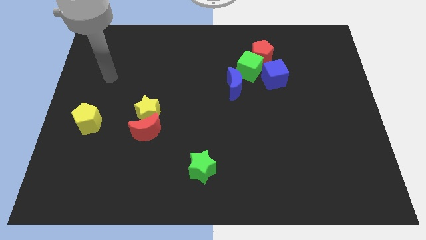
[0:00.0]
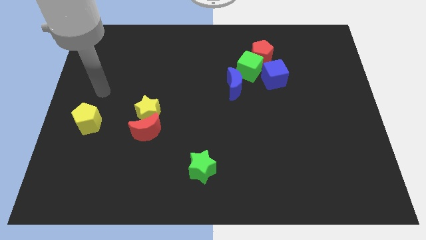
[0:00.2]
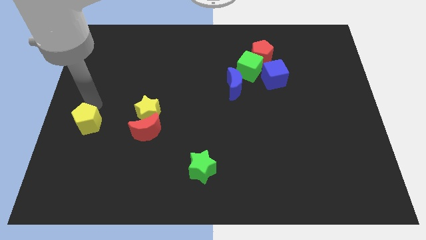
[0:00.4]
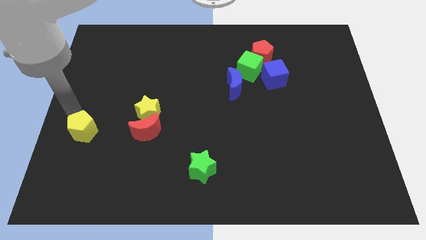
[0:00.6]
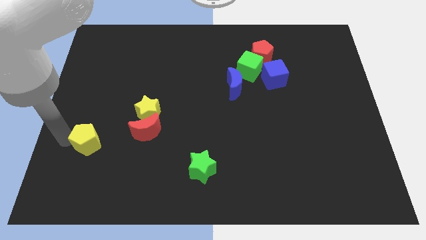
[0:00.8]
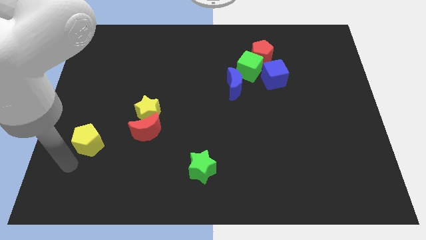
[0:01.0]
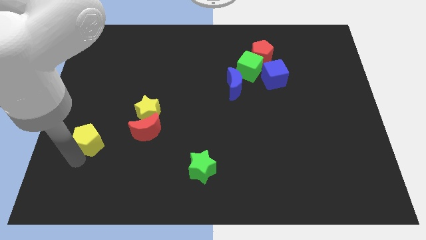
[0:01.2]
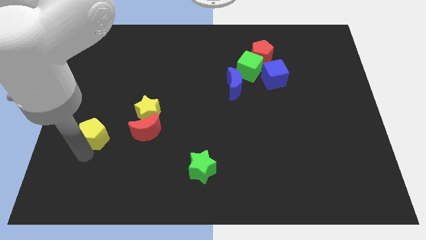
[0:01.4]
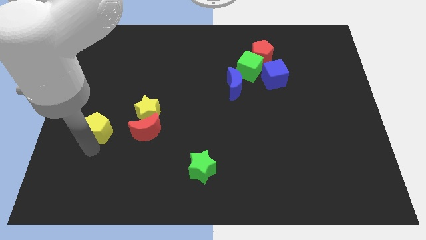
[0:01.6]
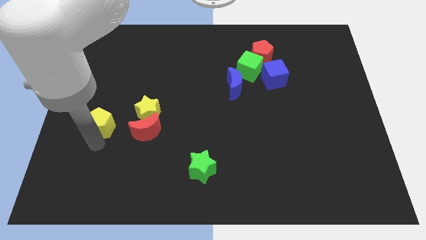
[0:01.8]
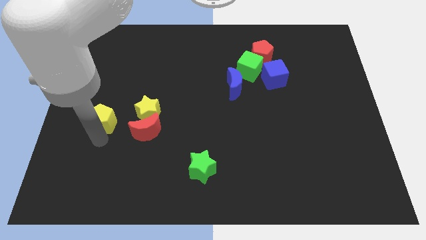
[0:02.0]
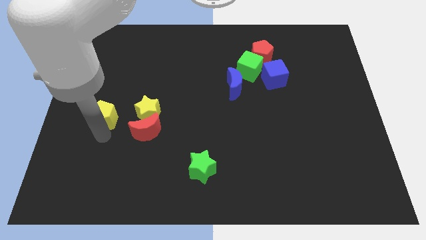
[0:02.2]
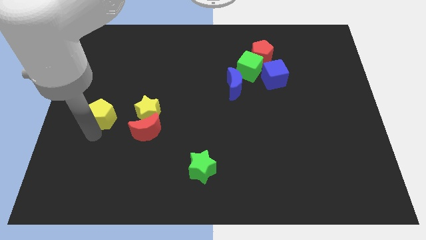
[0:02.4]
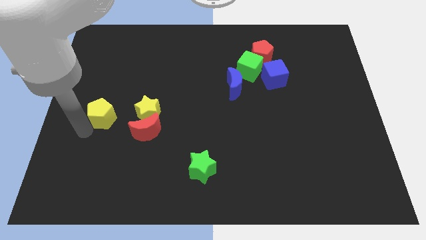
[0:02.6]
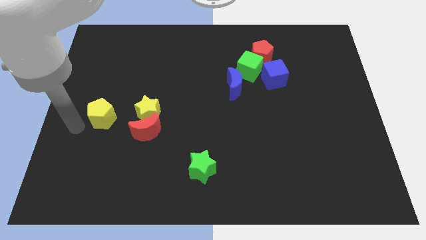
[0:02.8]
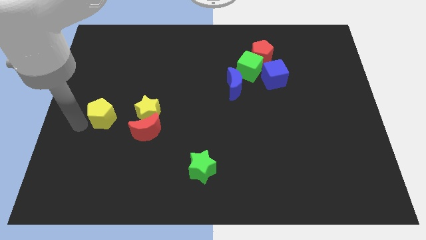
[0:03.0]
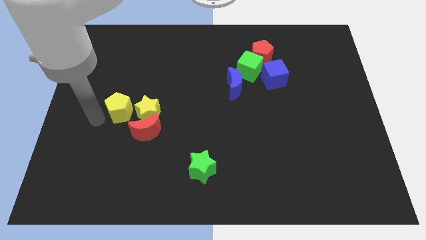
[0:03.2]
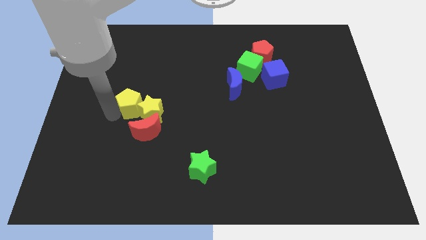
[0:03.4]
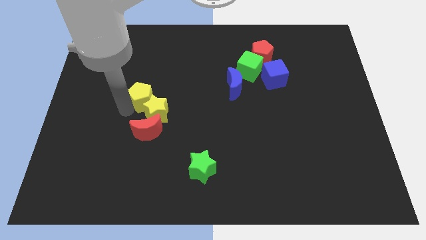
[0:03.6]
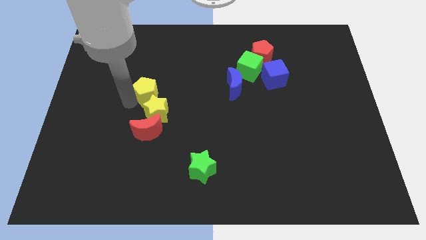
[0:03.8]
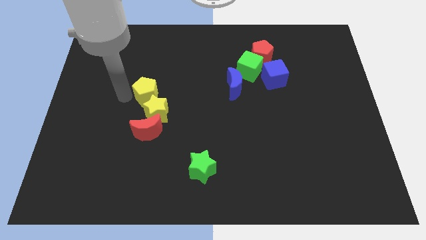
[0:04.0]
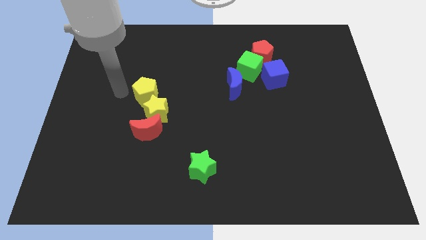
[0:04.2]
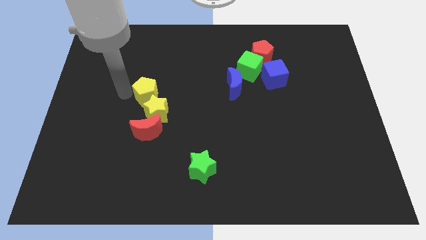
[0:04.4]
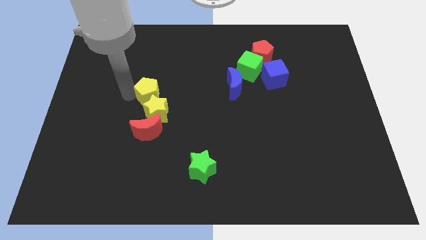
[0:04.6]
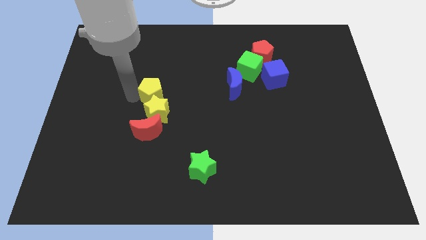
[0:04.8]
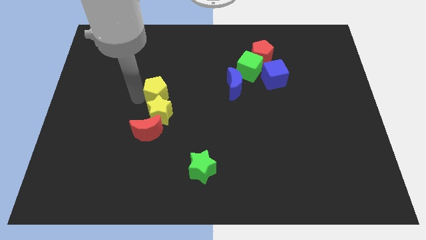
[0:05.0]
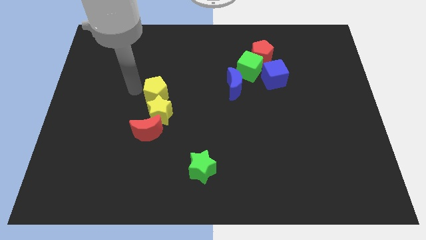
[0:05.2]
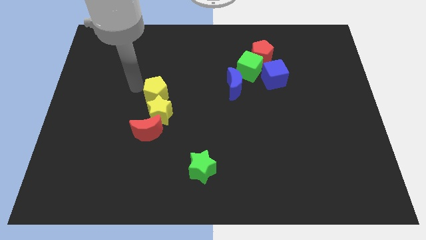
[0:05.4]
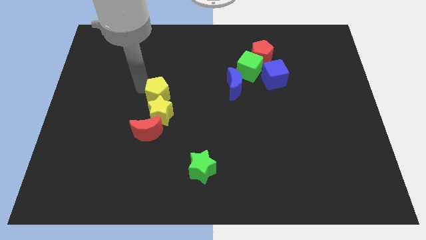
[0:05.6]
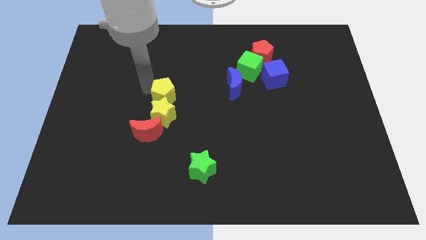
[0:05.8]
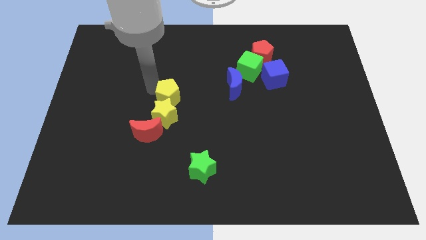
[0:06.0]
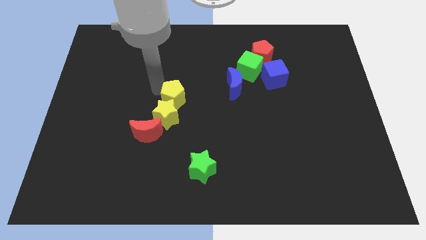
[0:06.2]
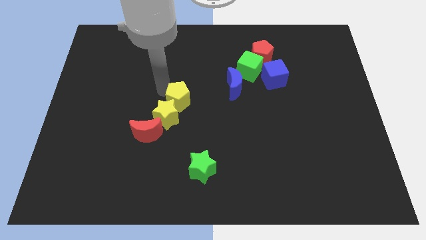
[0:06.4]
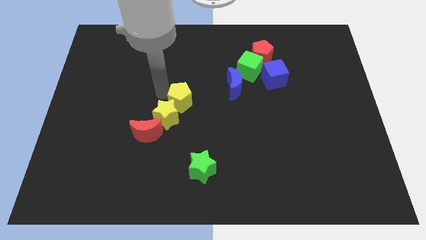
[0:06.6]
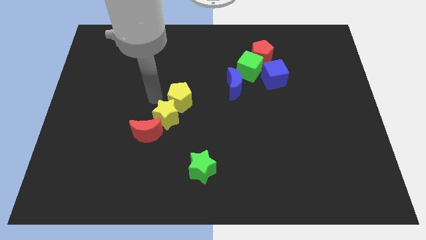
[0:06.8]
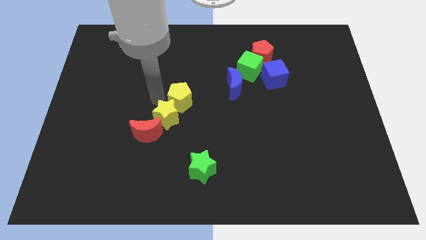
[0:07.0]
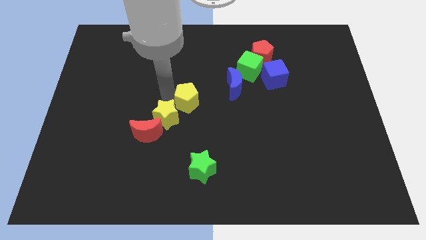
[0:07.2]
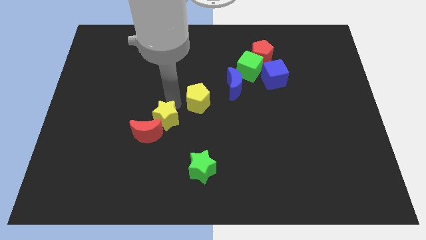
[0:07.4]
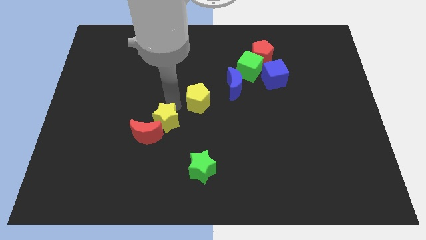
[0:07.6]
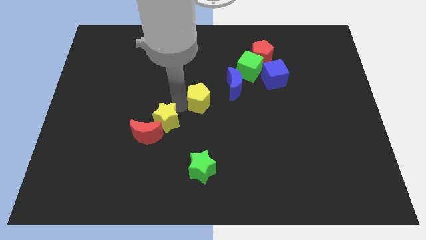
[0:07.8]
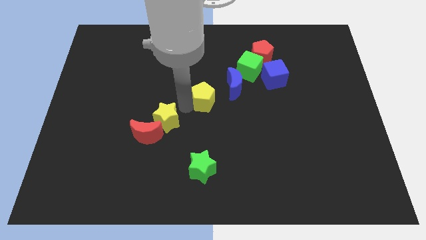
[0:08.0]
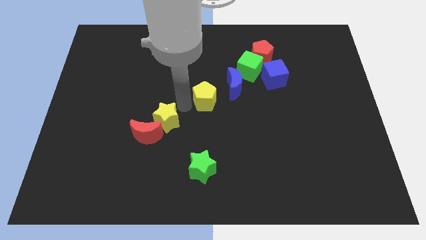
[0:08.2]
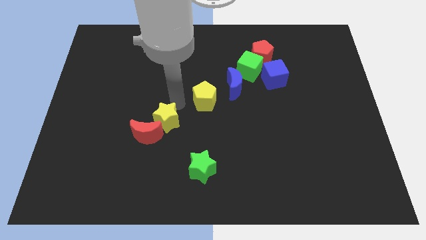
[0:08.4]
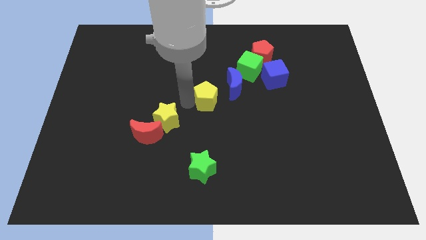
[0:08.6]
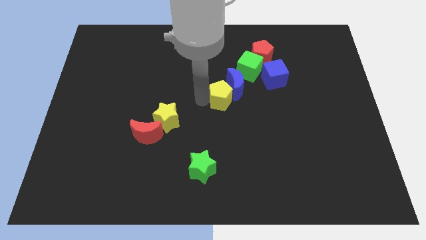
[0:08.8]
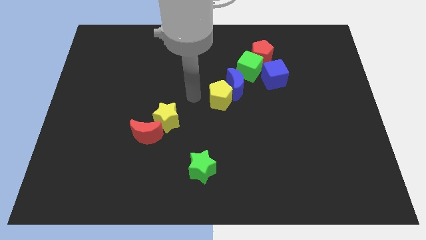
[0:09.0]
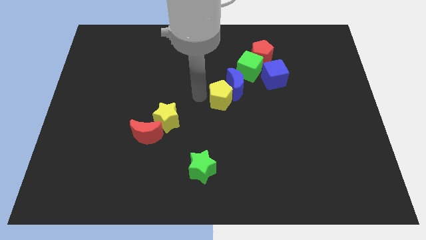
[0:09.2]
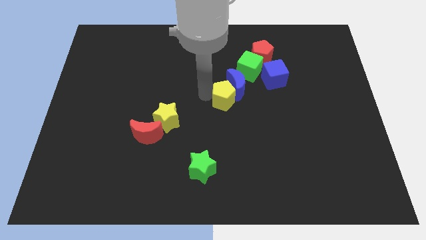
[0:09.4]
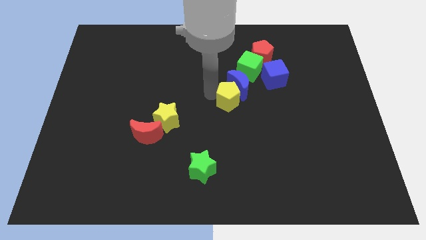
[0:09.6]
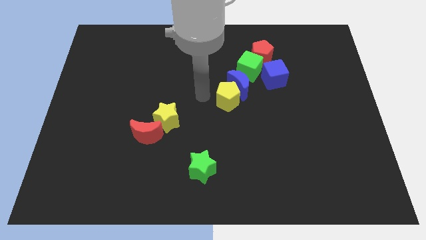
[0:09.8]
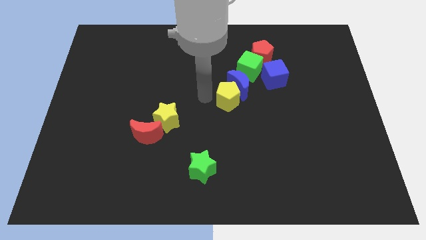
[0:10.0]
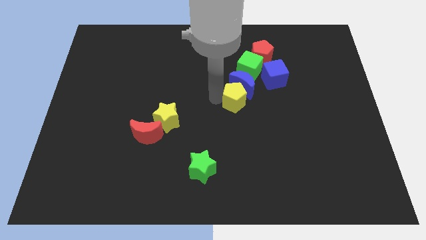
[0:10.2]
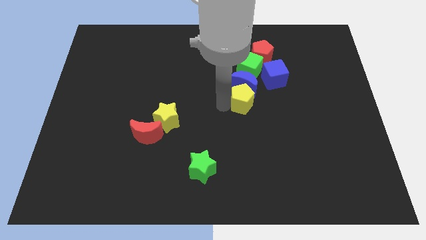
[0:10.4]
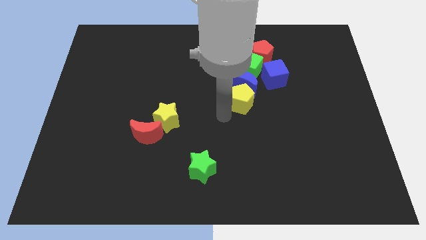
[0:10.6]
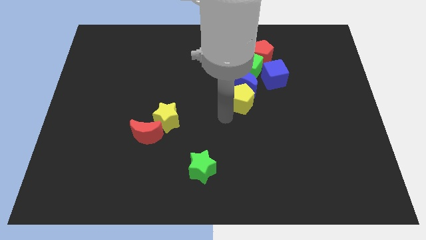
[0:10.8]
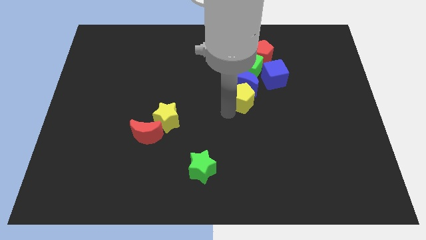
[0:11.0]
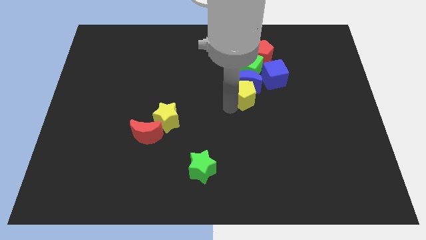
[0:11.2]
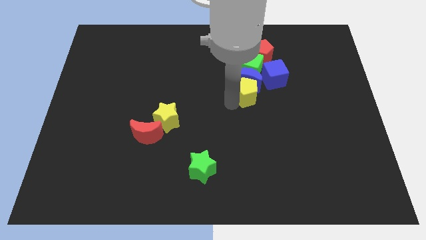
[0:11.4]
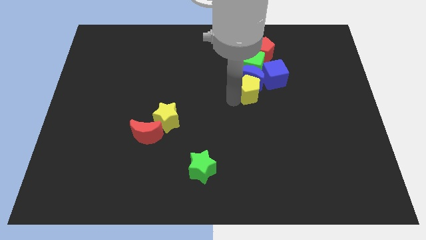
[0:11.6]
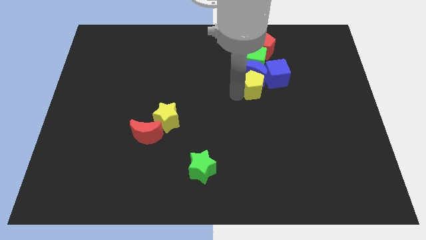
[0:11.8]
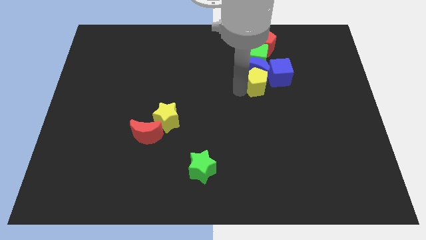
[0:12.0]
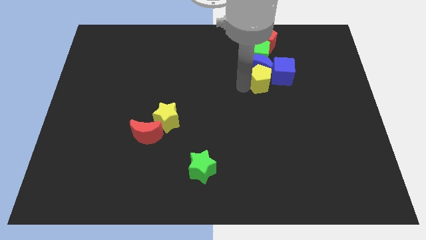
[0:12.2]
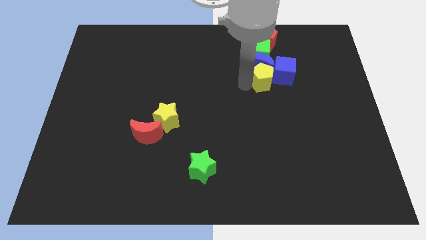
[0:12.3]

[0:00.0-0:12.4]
push the yellow pentagon towards the blue cube

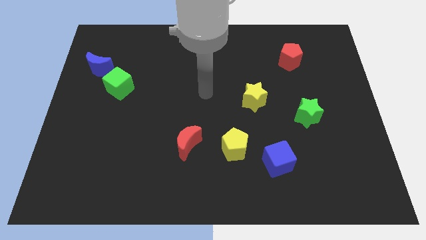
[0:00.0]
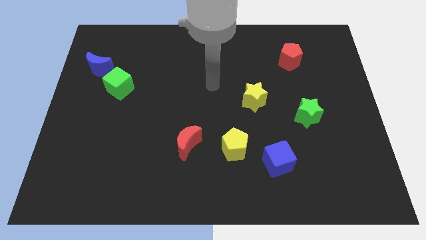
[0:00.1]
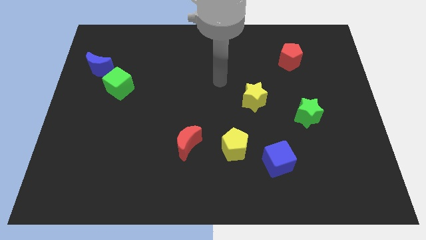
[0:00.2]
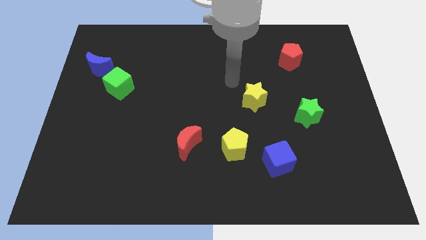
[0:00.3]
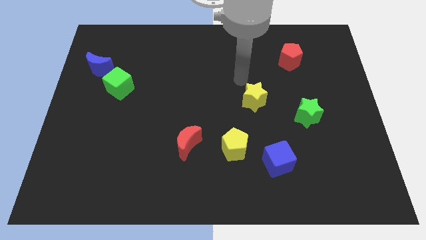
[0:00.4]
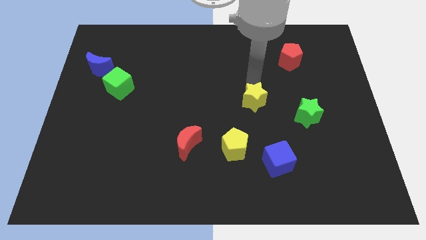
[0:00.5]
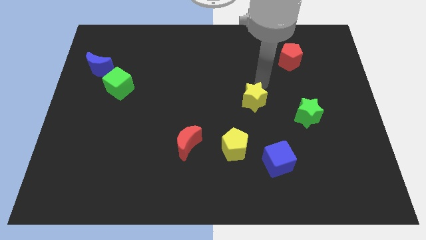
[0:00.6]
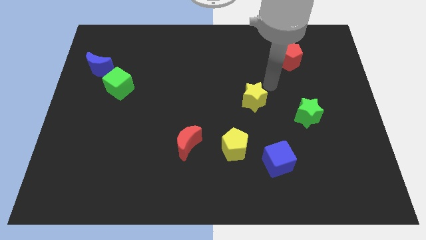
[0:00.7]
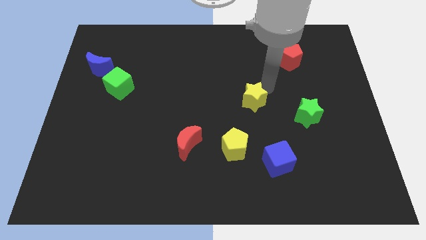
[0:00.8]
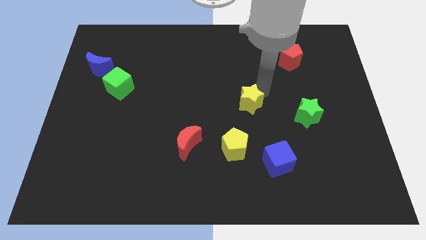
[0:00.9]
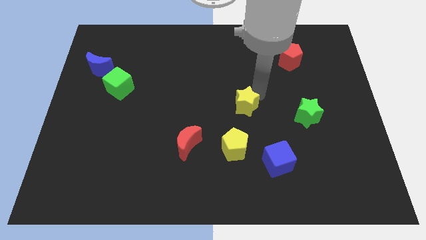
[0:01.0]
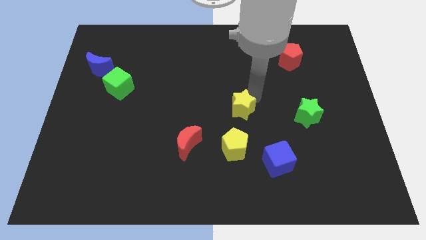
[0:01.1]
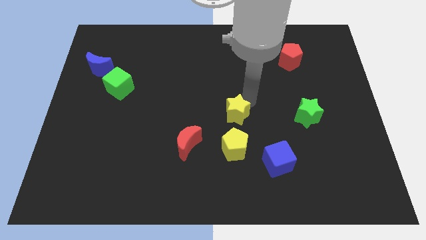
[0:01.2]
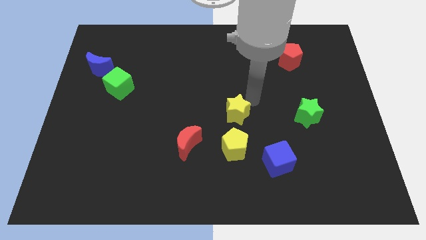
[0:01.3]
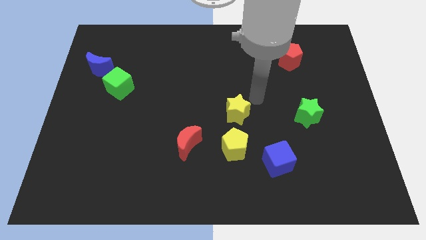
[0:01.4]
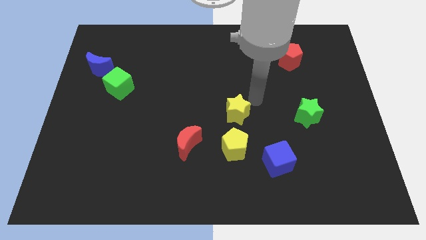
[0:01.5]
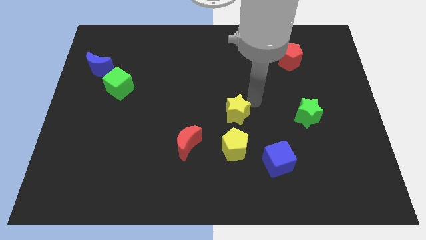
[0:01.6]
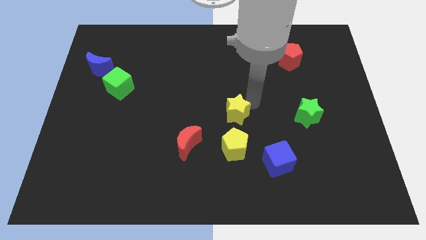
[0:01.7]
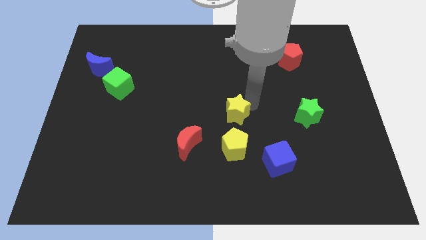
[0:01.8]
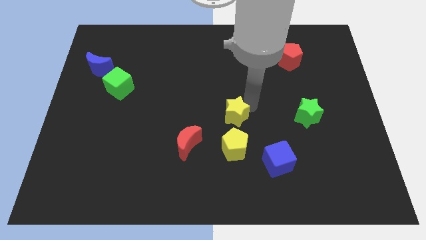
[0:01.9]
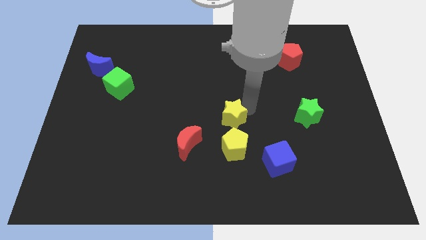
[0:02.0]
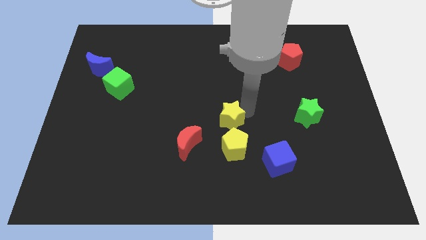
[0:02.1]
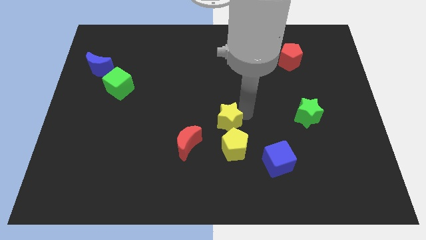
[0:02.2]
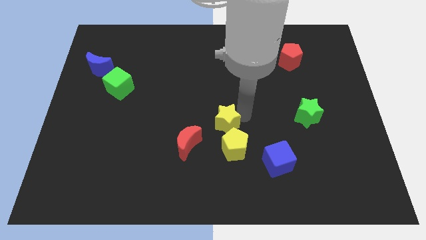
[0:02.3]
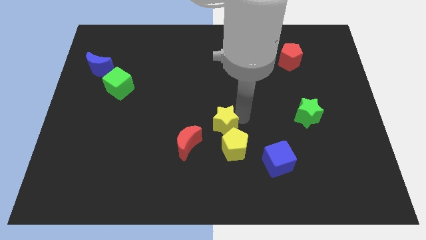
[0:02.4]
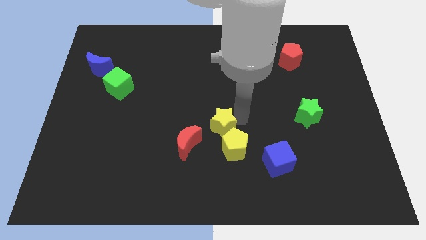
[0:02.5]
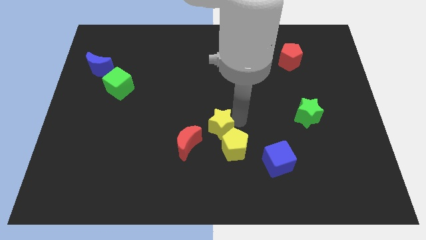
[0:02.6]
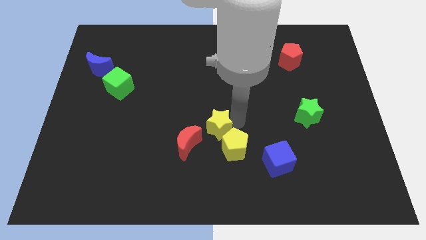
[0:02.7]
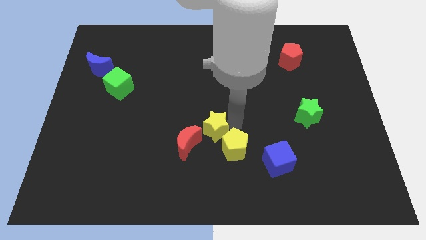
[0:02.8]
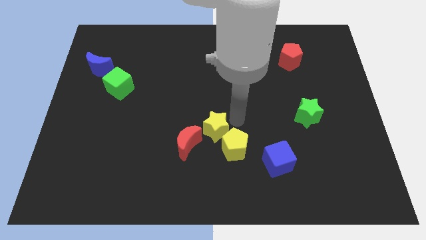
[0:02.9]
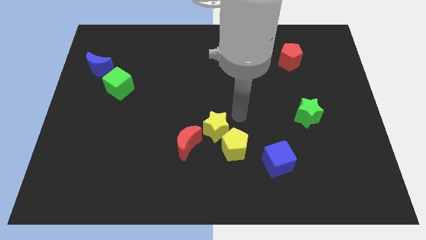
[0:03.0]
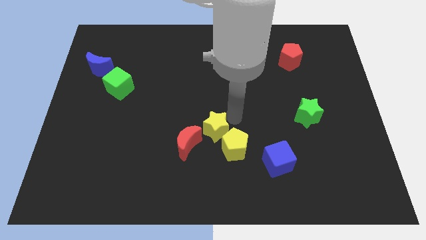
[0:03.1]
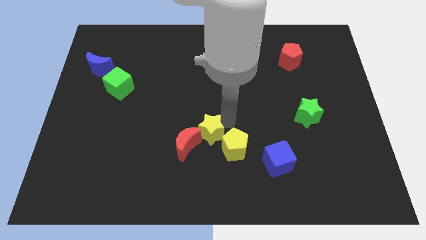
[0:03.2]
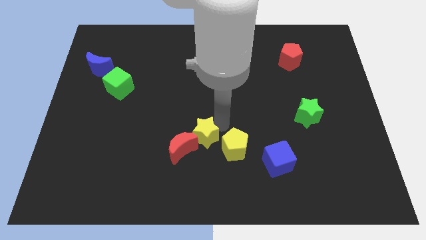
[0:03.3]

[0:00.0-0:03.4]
slide the yellow star towards the red moon
